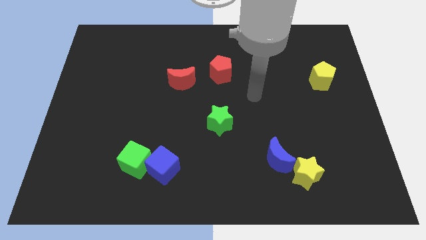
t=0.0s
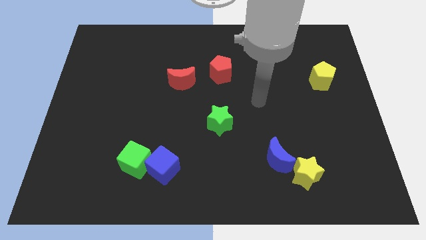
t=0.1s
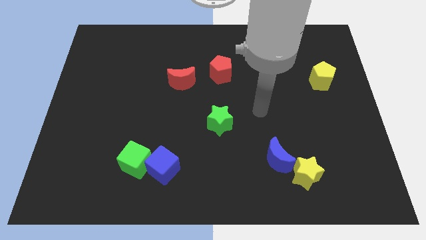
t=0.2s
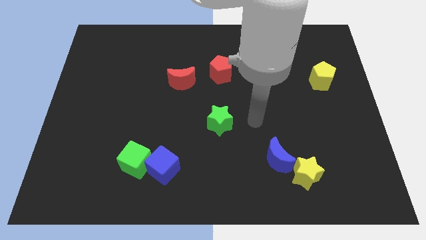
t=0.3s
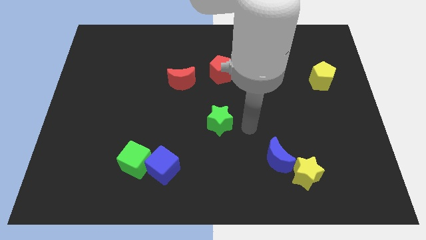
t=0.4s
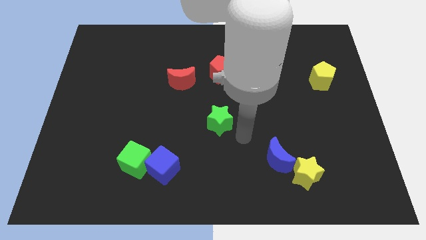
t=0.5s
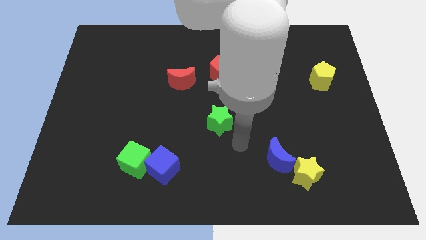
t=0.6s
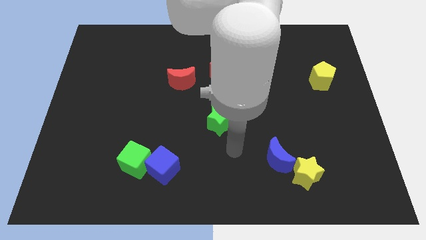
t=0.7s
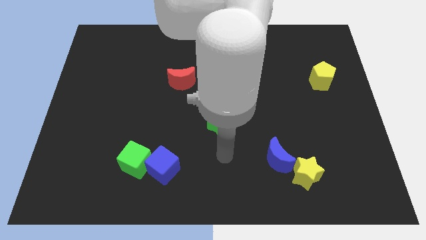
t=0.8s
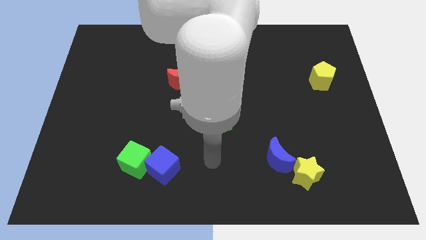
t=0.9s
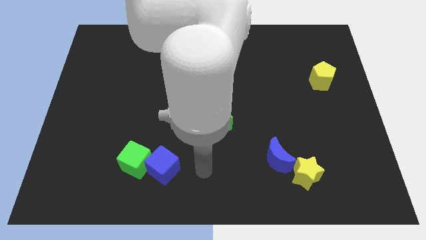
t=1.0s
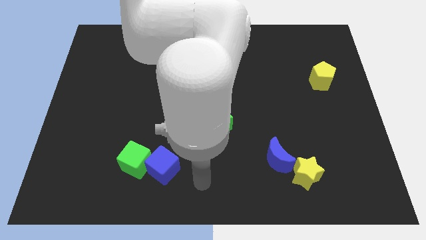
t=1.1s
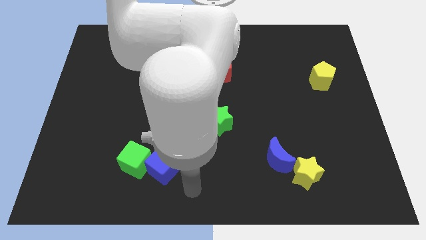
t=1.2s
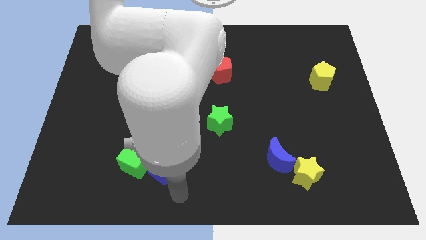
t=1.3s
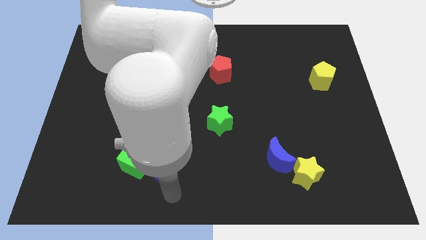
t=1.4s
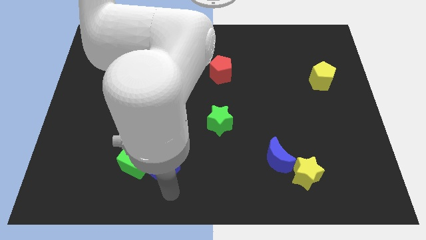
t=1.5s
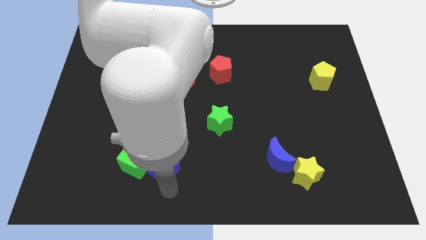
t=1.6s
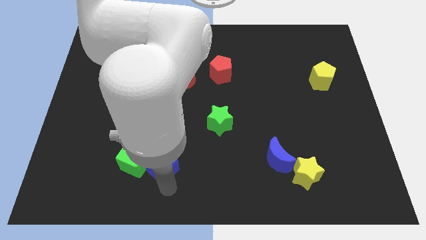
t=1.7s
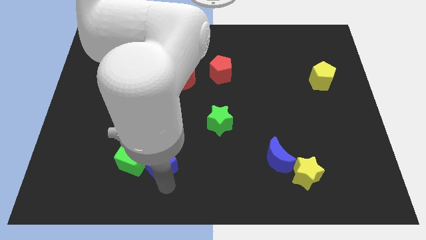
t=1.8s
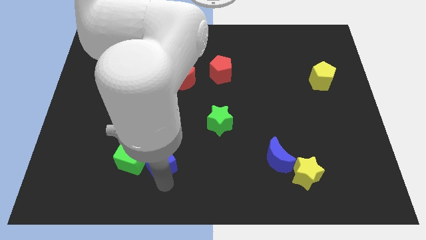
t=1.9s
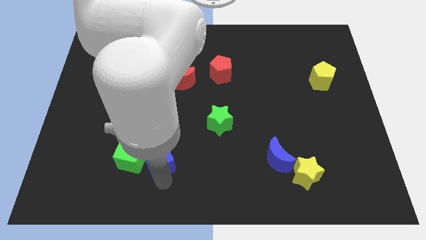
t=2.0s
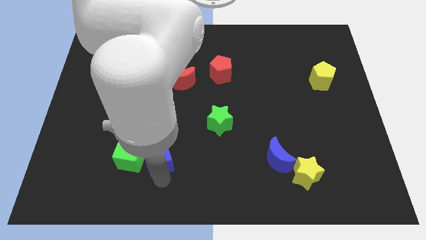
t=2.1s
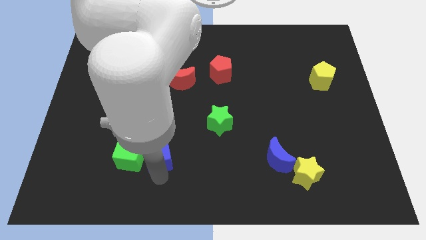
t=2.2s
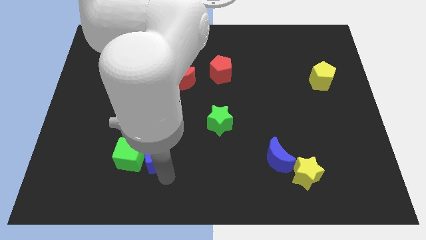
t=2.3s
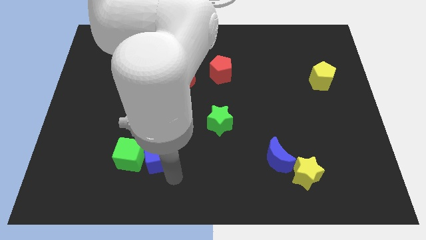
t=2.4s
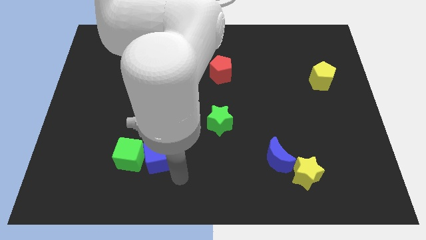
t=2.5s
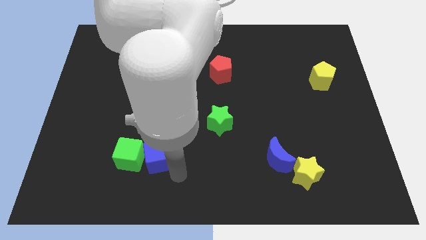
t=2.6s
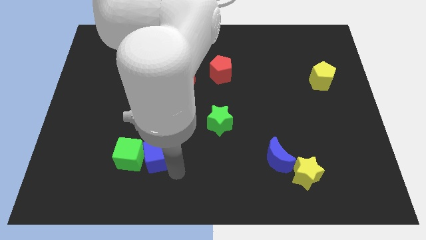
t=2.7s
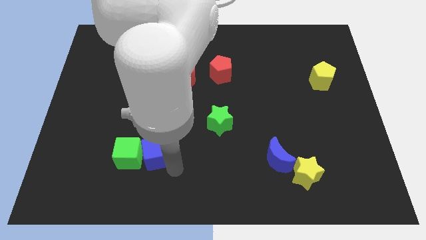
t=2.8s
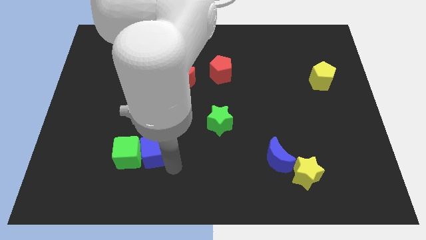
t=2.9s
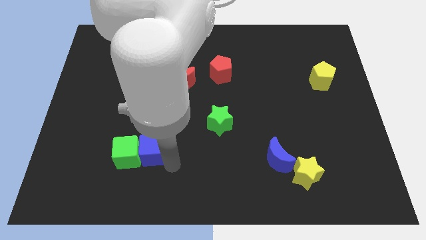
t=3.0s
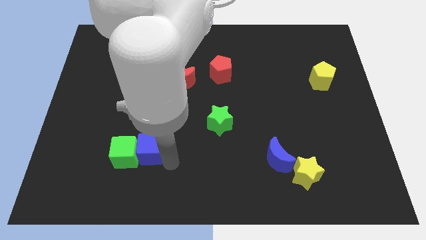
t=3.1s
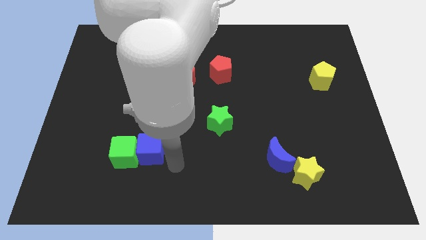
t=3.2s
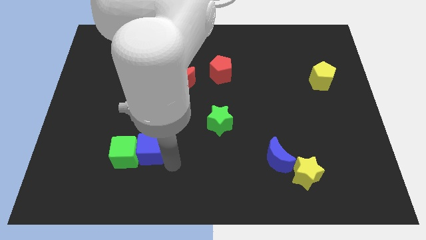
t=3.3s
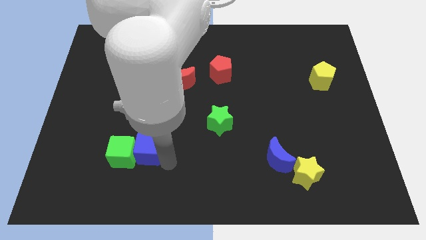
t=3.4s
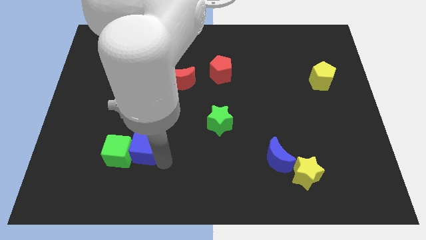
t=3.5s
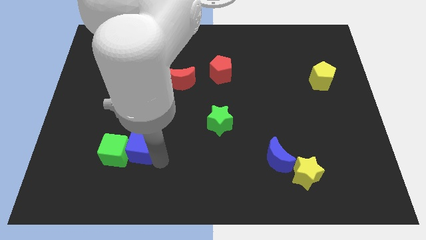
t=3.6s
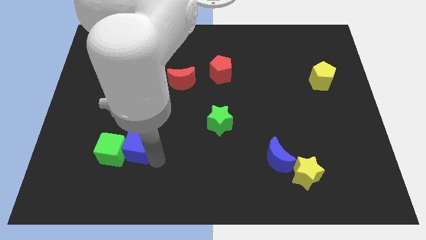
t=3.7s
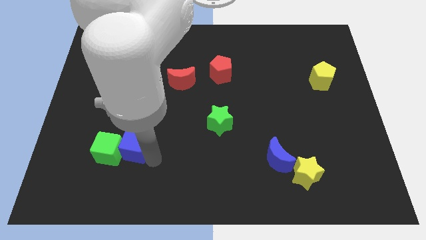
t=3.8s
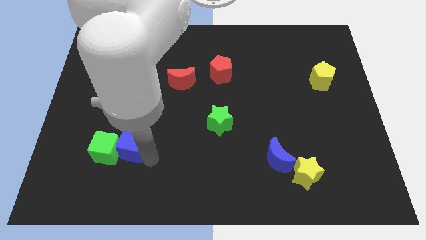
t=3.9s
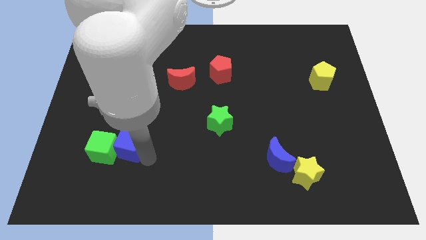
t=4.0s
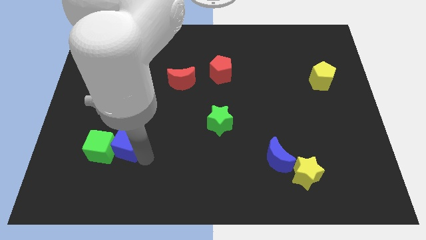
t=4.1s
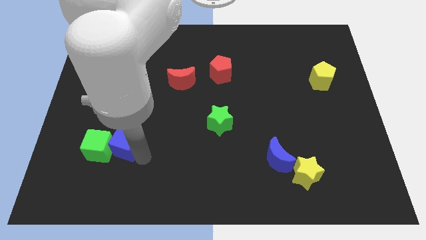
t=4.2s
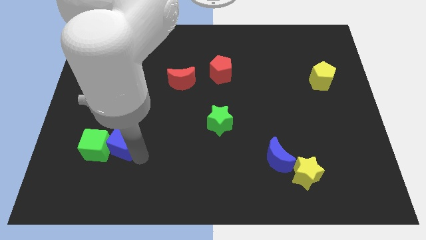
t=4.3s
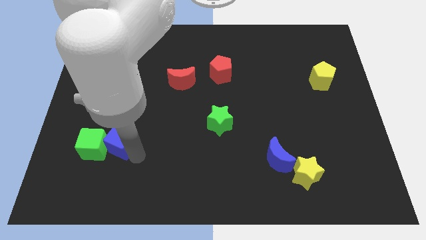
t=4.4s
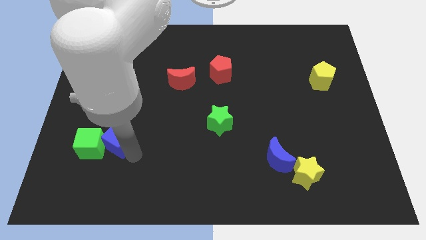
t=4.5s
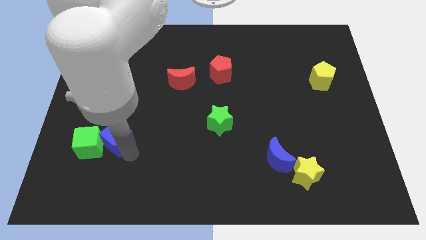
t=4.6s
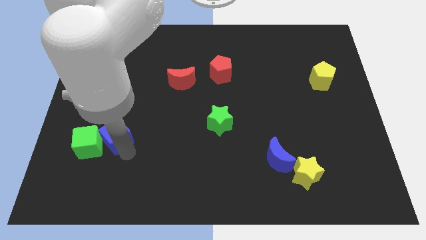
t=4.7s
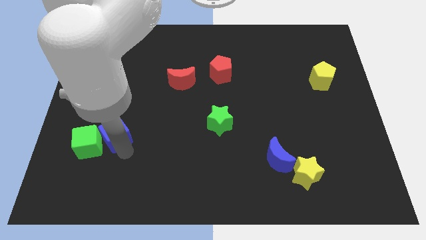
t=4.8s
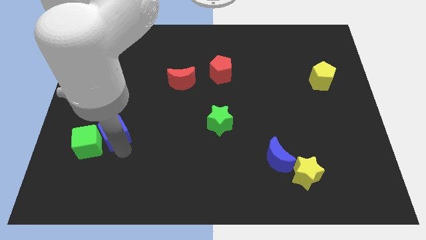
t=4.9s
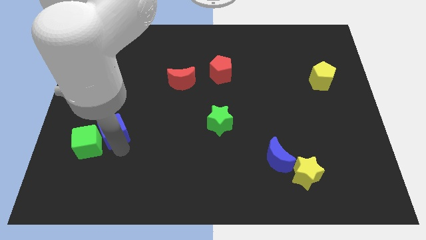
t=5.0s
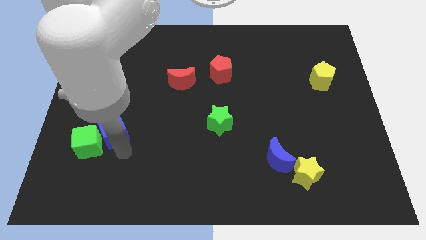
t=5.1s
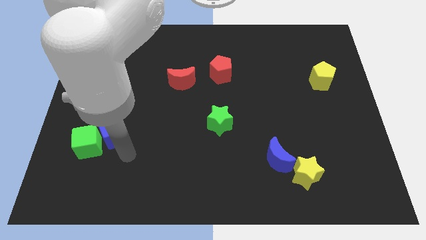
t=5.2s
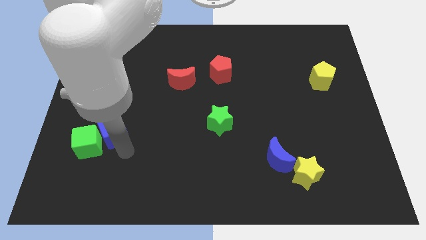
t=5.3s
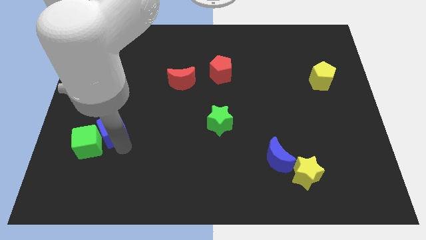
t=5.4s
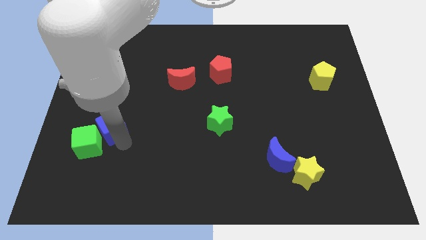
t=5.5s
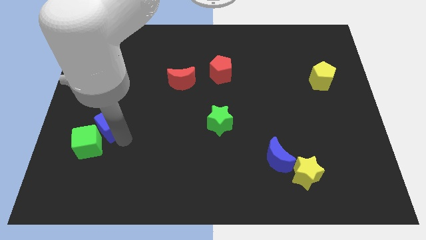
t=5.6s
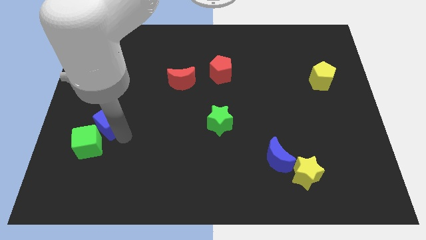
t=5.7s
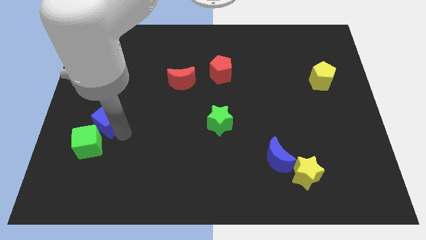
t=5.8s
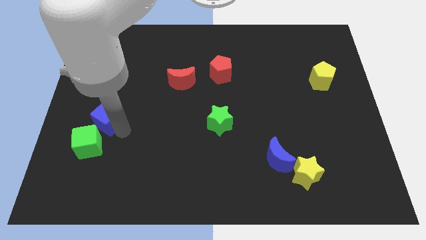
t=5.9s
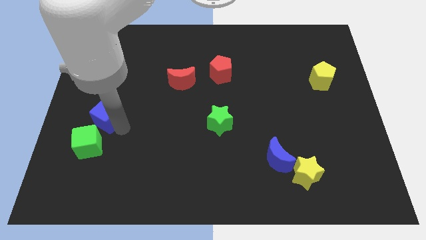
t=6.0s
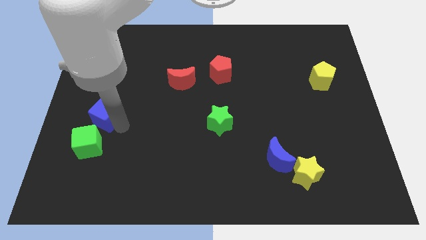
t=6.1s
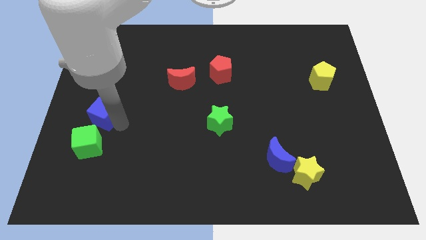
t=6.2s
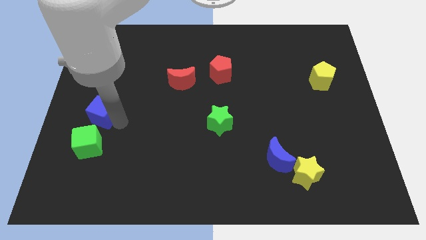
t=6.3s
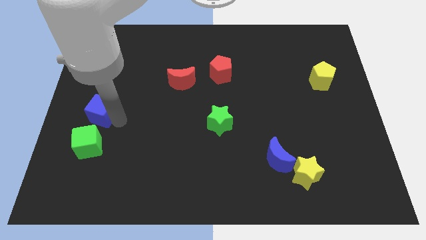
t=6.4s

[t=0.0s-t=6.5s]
slide the blue cube to the center left
